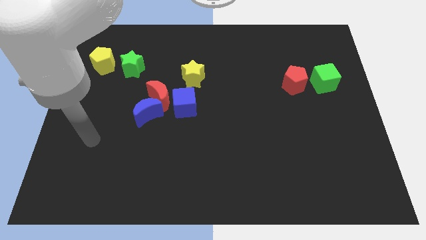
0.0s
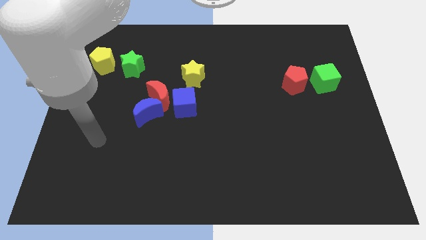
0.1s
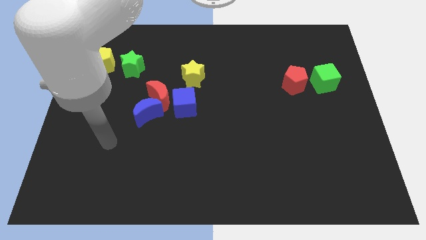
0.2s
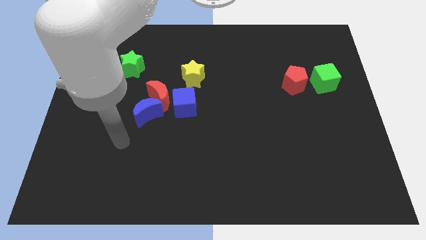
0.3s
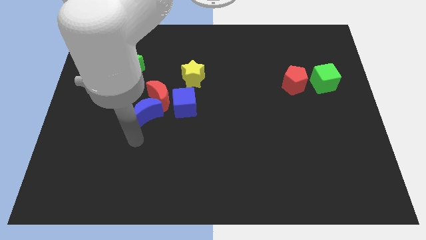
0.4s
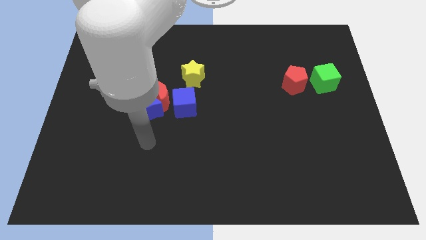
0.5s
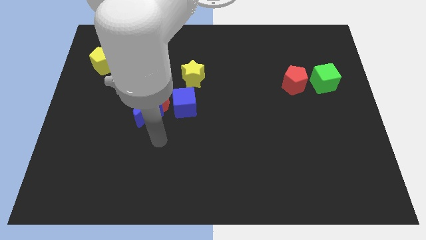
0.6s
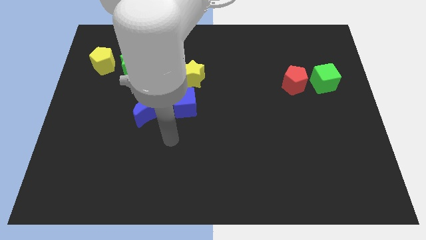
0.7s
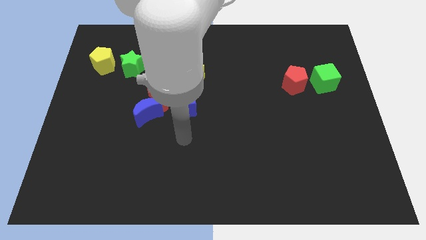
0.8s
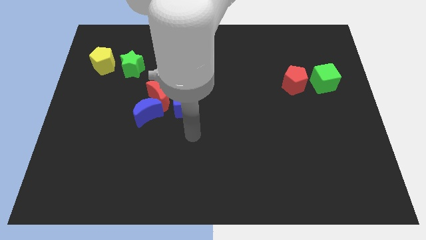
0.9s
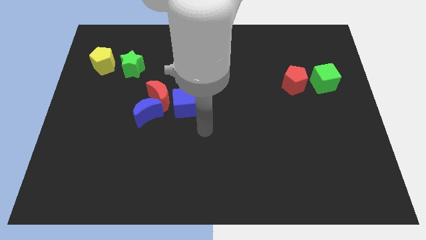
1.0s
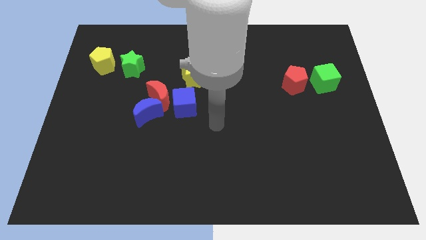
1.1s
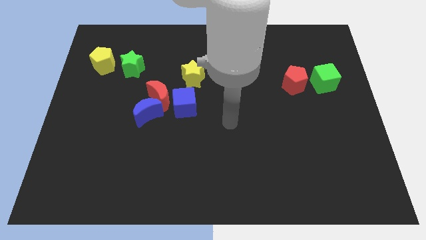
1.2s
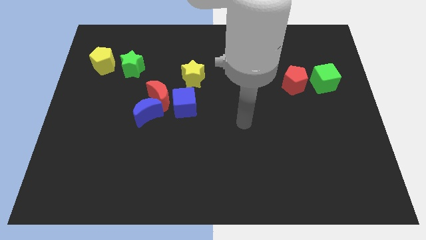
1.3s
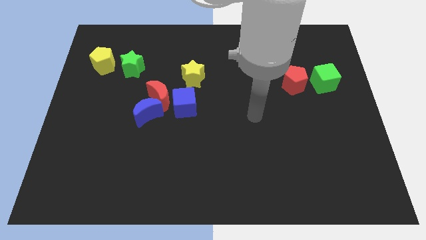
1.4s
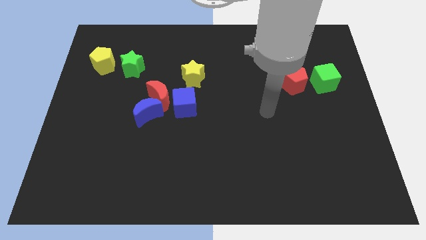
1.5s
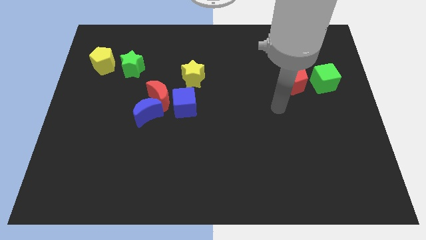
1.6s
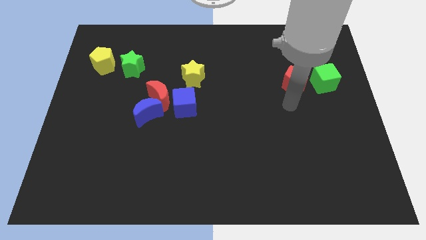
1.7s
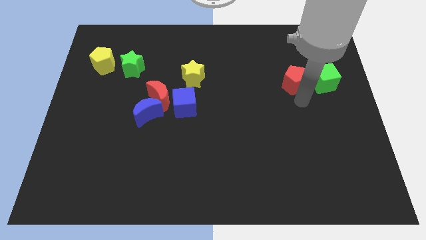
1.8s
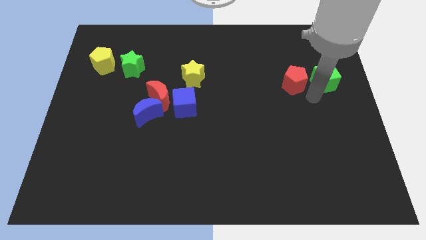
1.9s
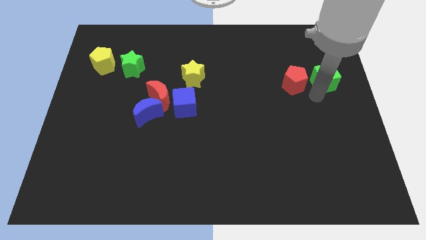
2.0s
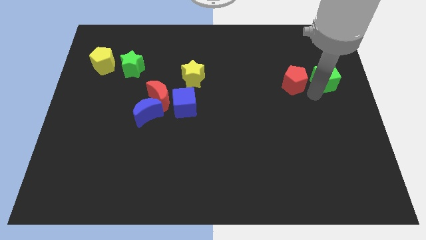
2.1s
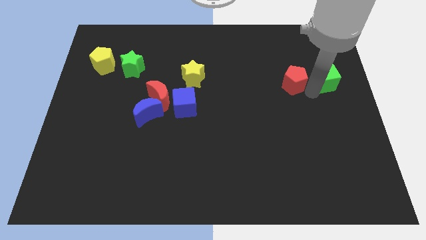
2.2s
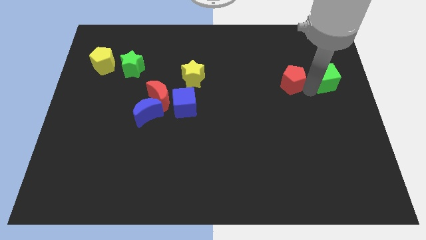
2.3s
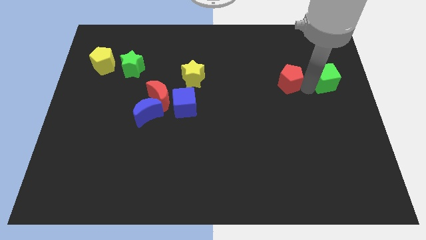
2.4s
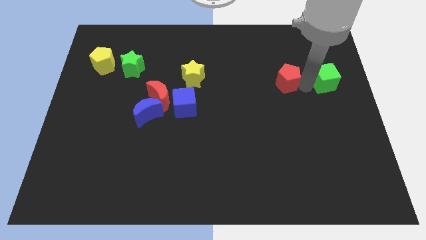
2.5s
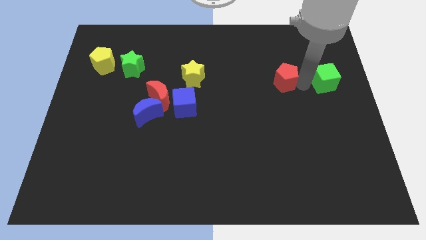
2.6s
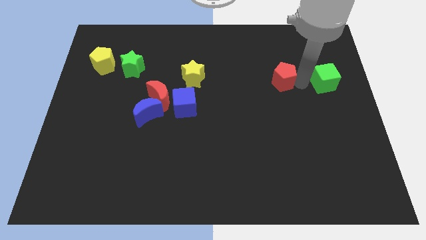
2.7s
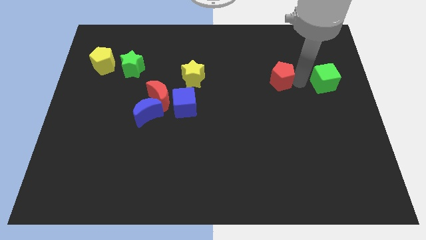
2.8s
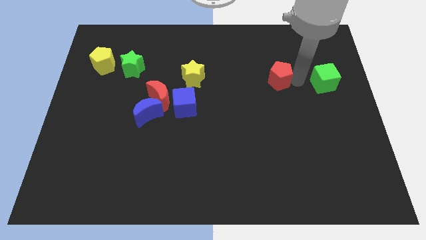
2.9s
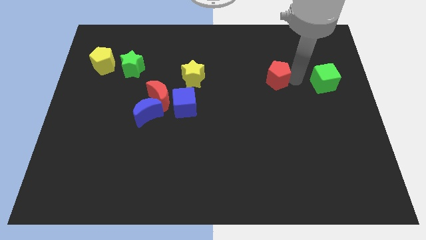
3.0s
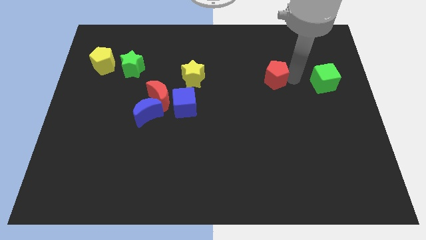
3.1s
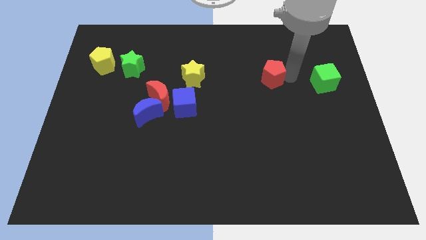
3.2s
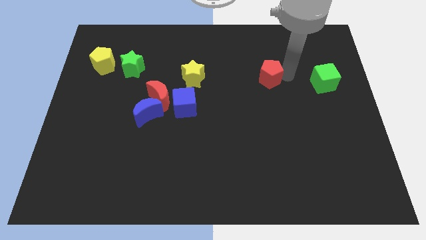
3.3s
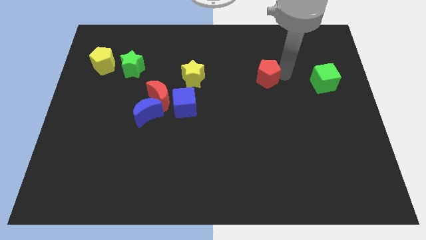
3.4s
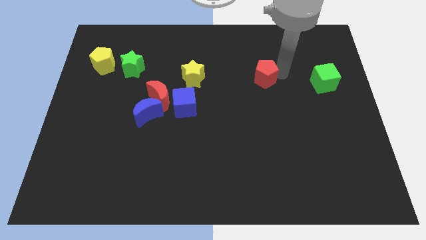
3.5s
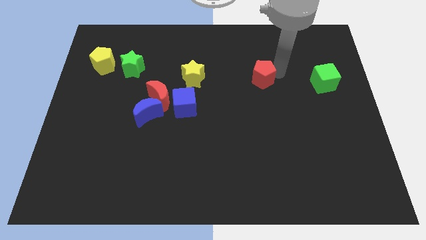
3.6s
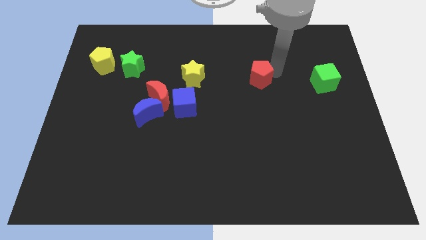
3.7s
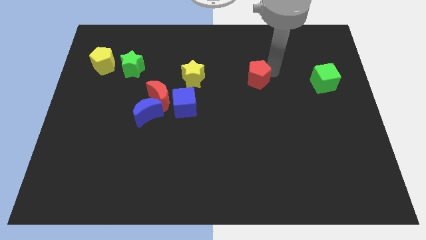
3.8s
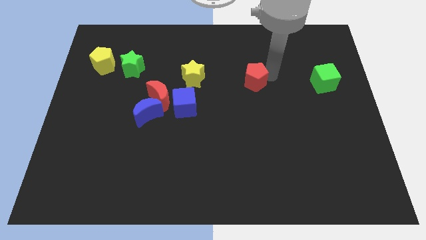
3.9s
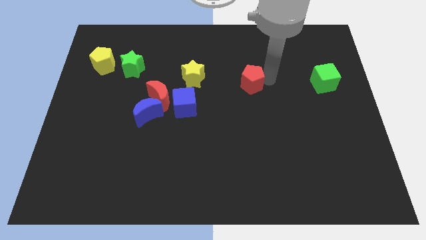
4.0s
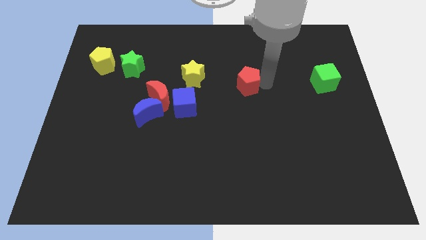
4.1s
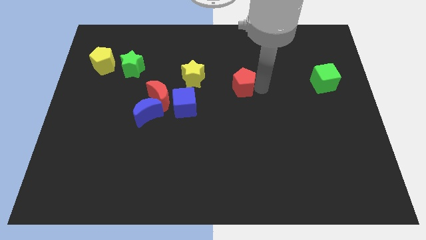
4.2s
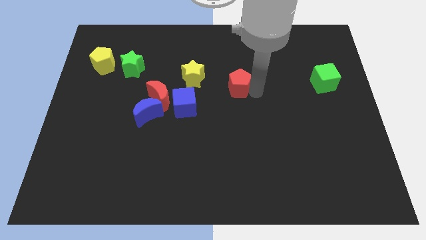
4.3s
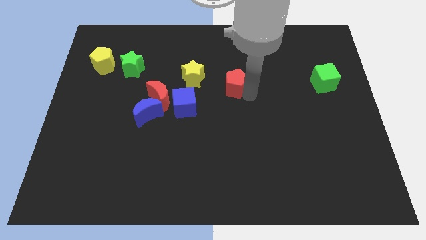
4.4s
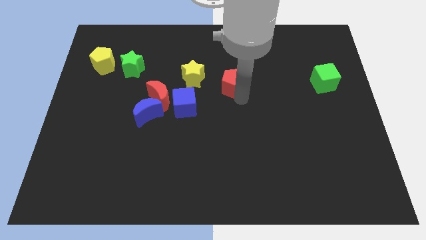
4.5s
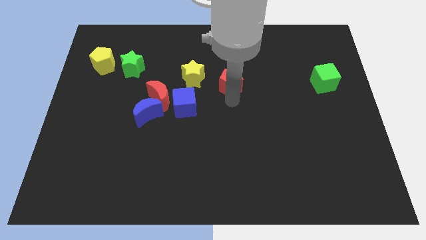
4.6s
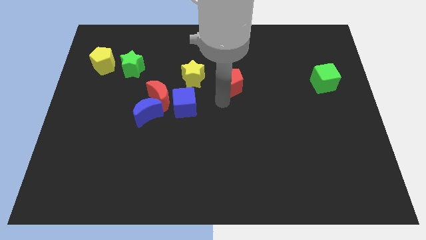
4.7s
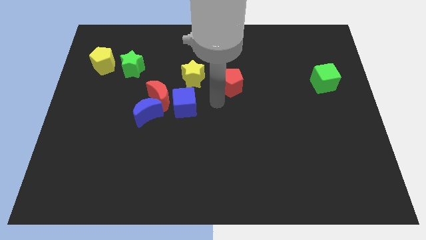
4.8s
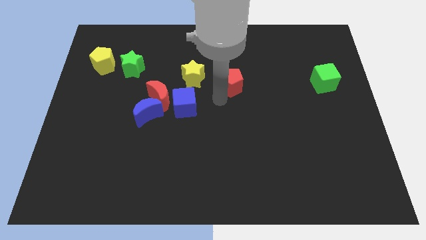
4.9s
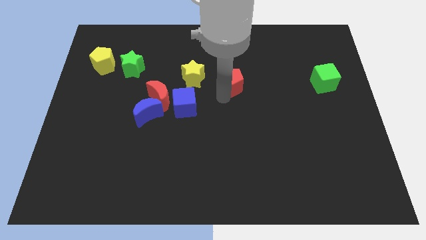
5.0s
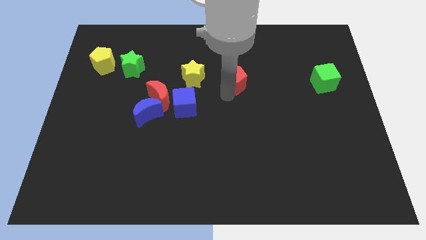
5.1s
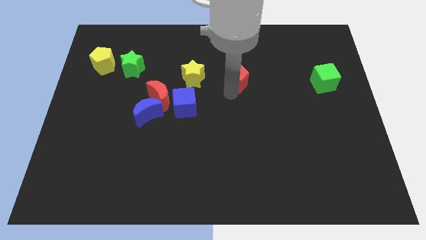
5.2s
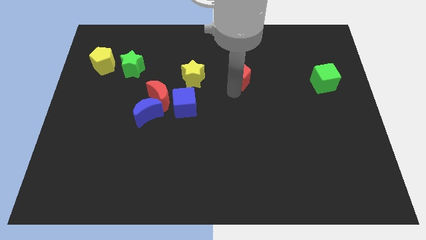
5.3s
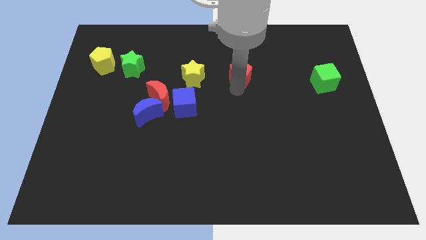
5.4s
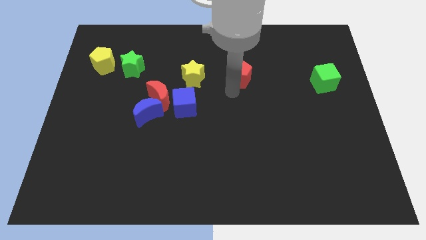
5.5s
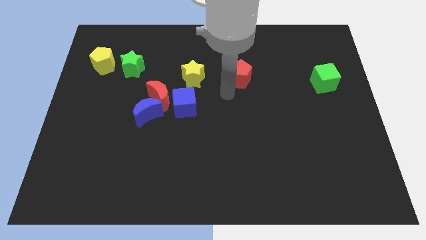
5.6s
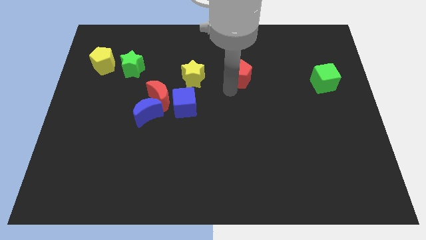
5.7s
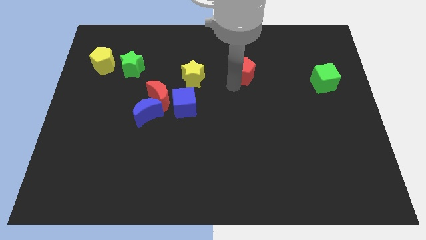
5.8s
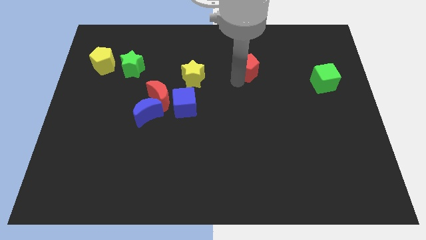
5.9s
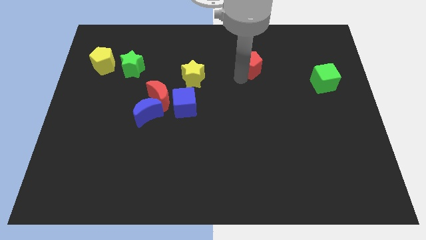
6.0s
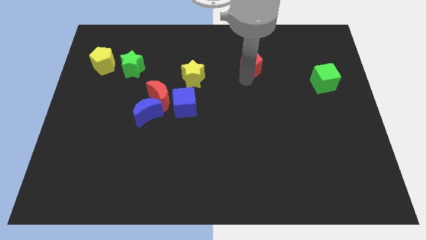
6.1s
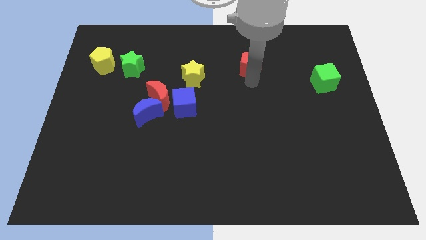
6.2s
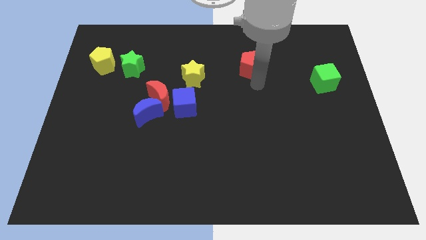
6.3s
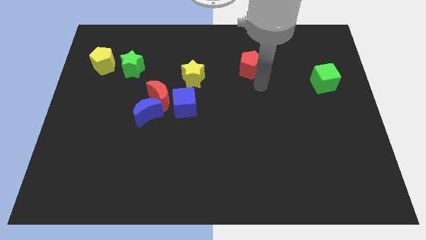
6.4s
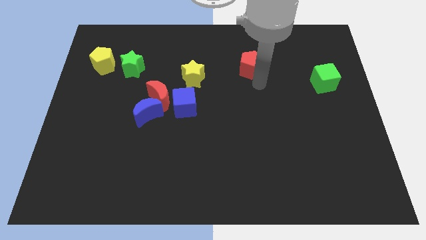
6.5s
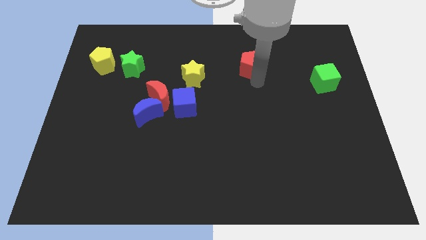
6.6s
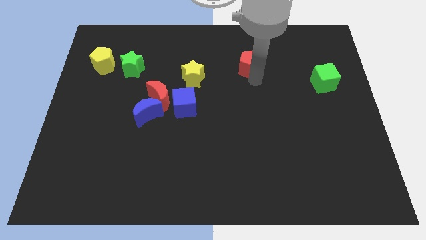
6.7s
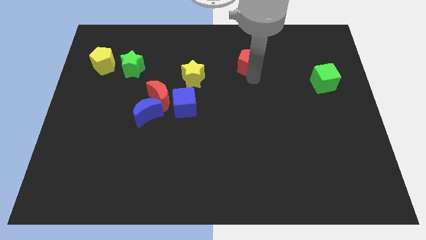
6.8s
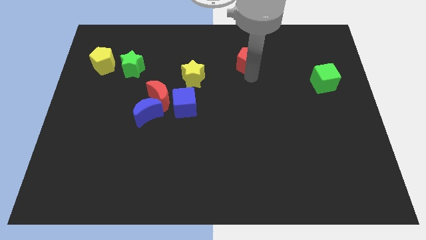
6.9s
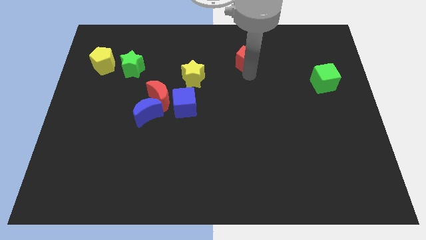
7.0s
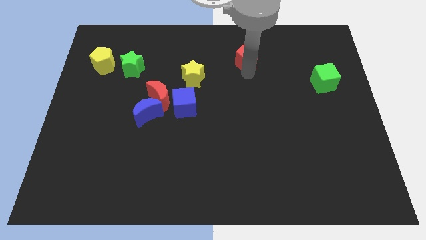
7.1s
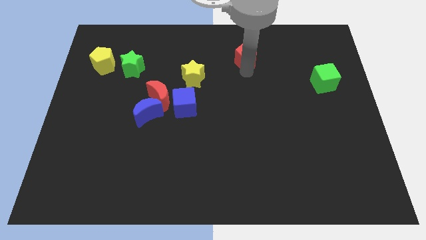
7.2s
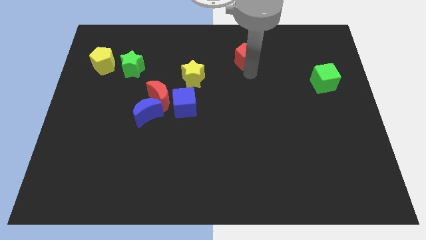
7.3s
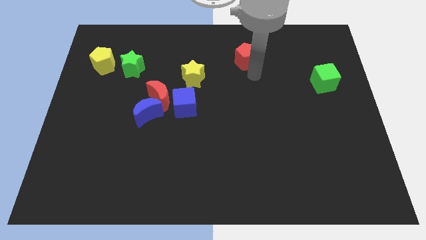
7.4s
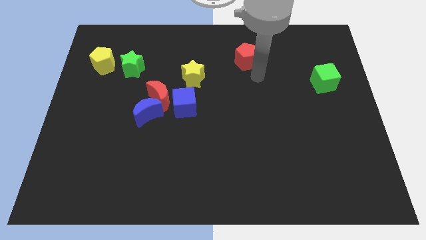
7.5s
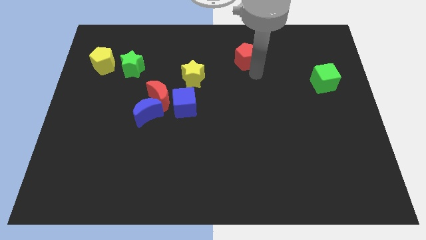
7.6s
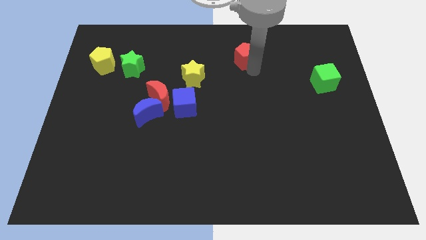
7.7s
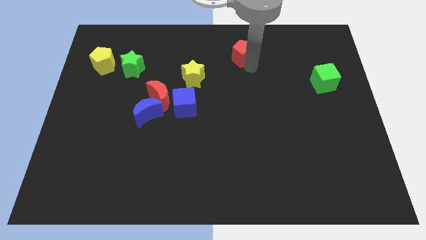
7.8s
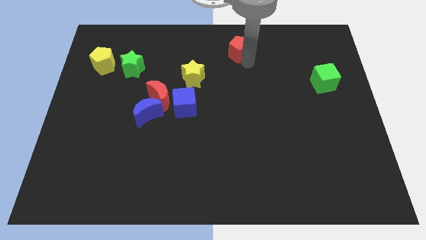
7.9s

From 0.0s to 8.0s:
put the red pentagon to the towards your base
